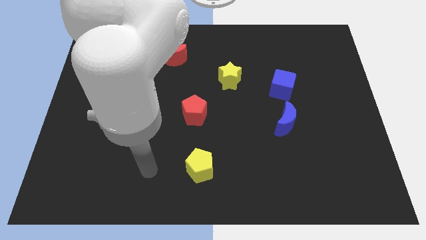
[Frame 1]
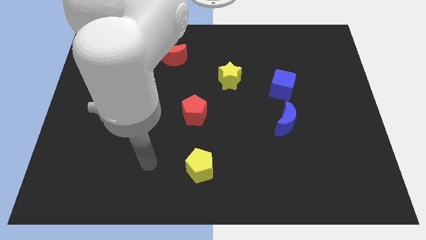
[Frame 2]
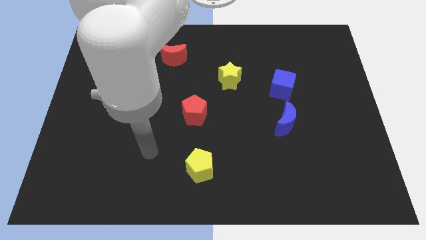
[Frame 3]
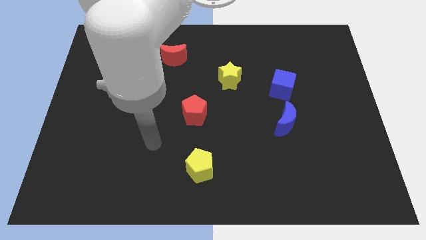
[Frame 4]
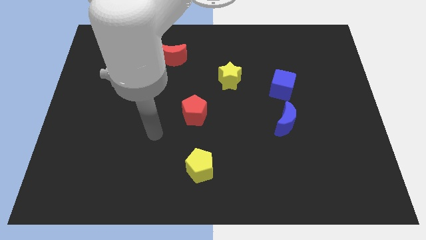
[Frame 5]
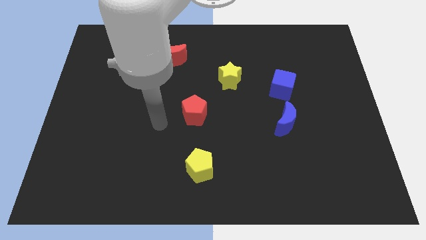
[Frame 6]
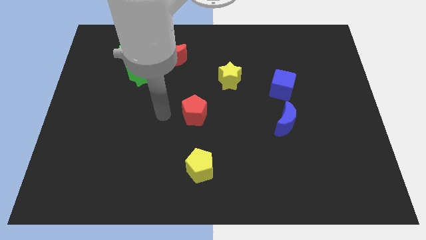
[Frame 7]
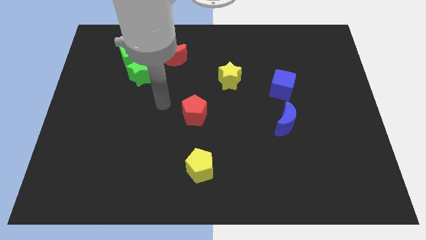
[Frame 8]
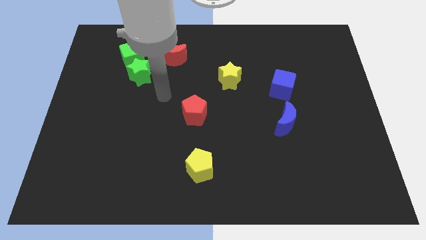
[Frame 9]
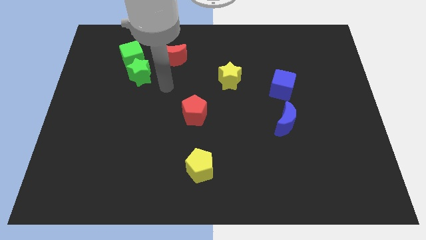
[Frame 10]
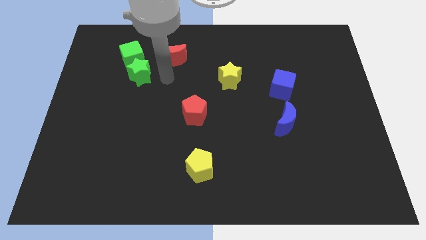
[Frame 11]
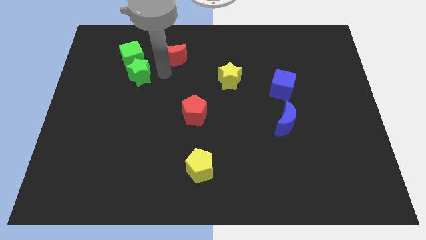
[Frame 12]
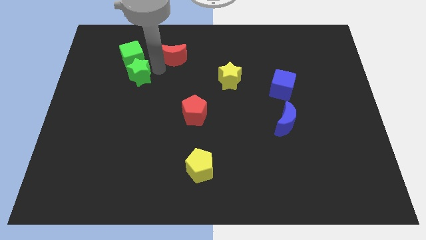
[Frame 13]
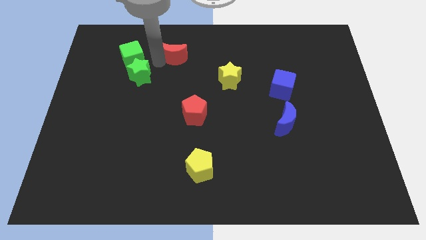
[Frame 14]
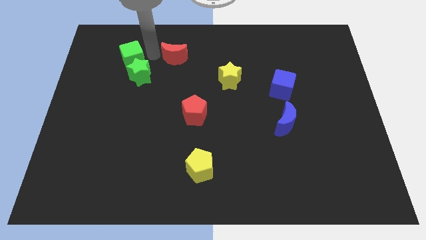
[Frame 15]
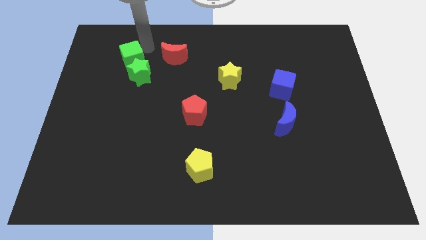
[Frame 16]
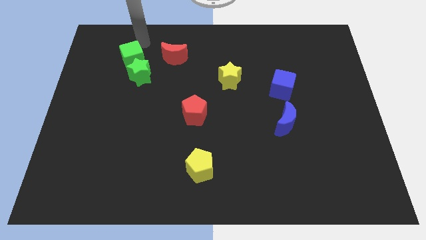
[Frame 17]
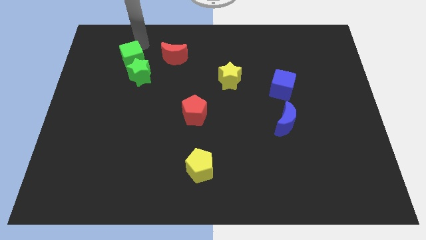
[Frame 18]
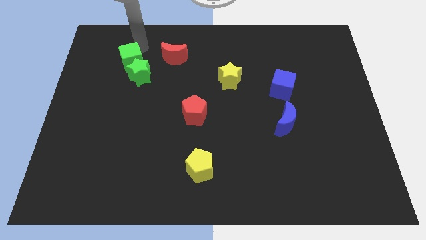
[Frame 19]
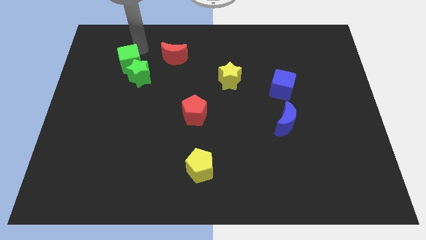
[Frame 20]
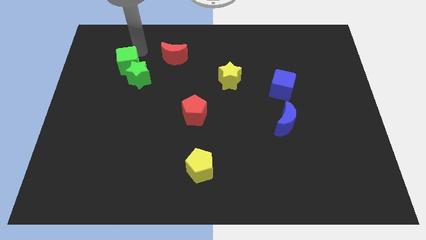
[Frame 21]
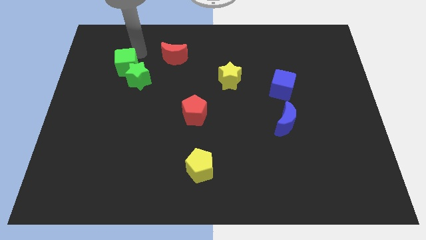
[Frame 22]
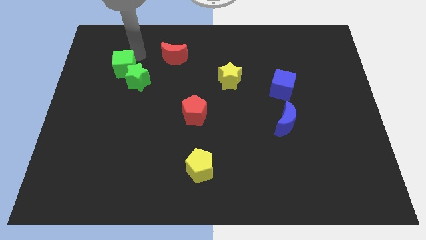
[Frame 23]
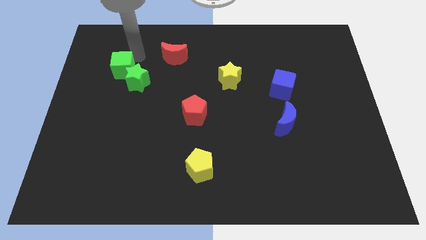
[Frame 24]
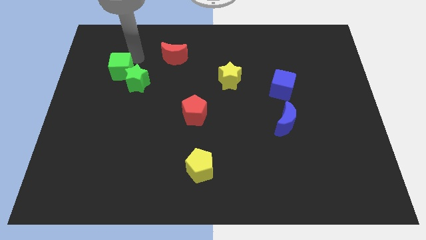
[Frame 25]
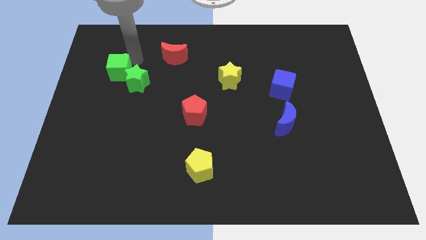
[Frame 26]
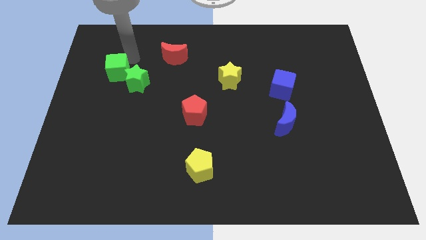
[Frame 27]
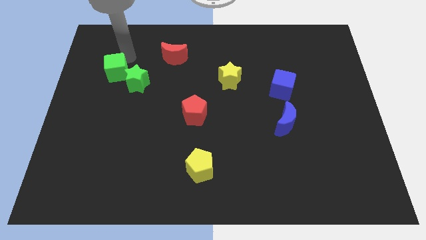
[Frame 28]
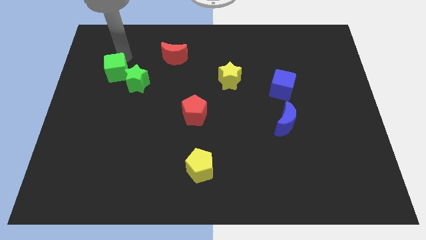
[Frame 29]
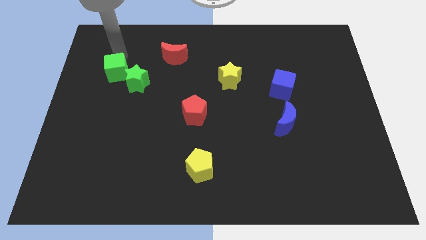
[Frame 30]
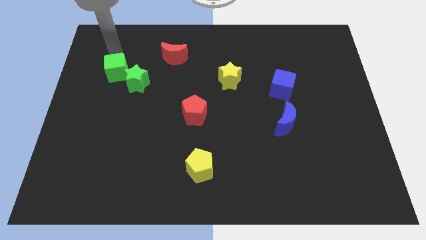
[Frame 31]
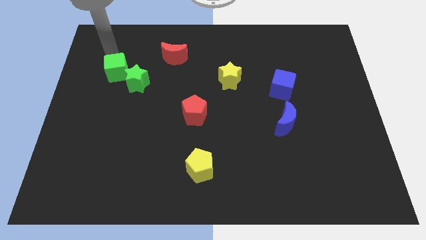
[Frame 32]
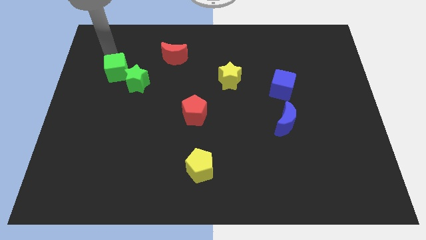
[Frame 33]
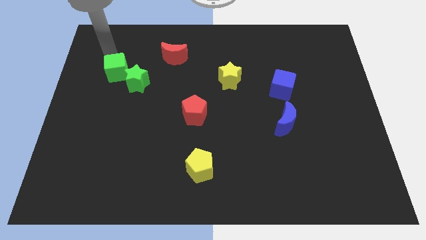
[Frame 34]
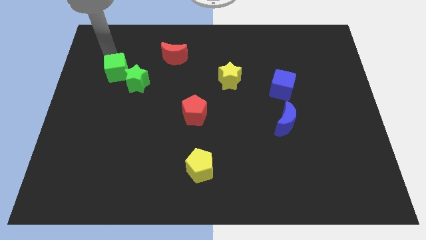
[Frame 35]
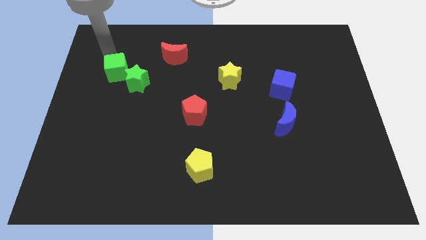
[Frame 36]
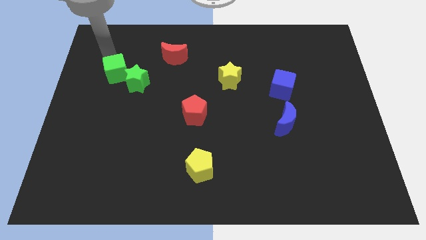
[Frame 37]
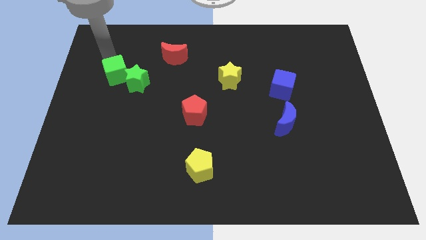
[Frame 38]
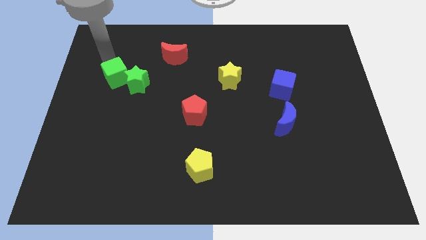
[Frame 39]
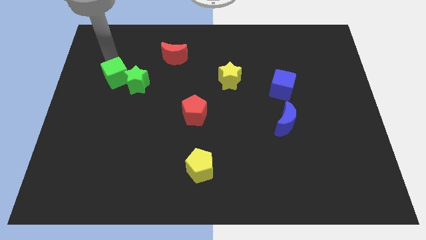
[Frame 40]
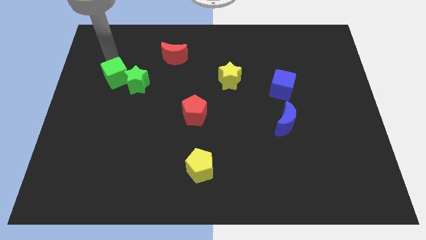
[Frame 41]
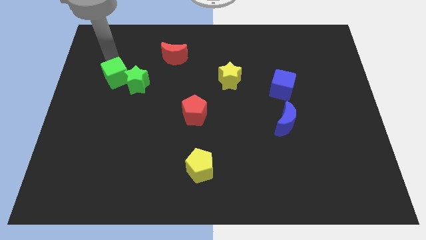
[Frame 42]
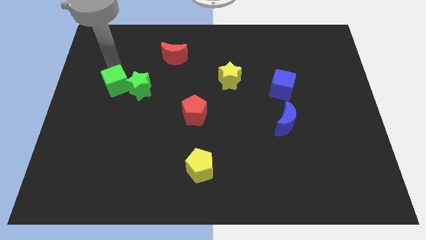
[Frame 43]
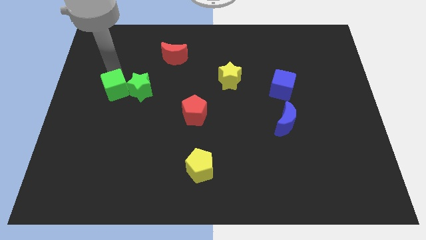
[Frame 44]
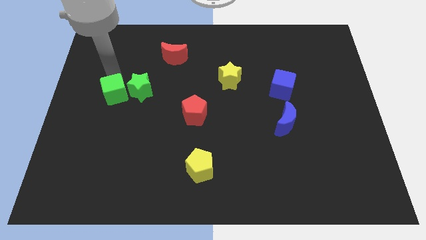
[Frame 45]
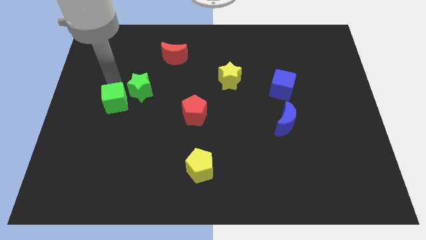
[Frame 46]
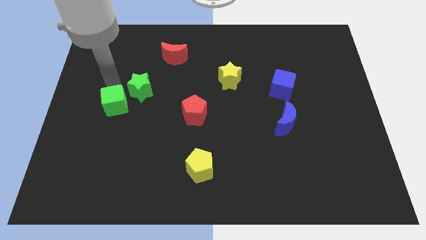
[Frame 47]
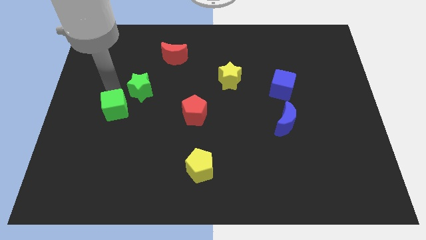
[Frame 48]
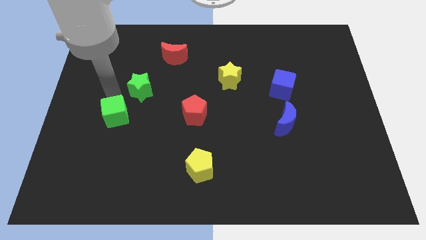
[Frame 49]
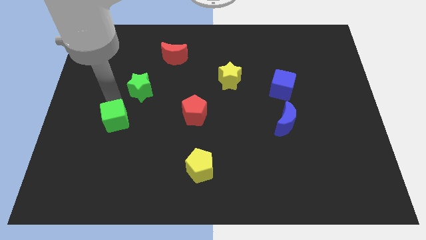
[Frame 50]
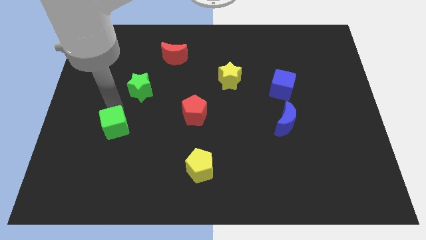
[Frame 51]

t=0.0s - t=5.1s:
slide the green cube downwards

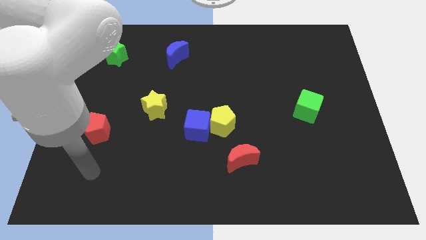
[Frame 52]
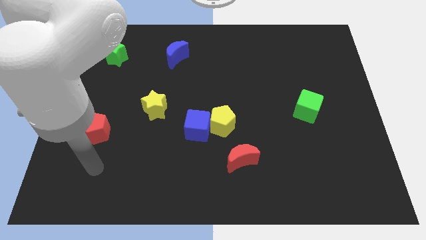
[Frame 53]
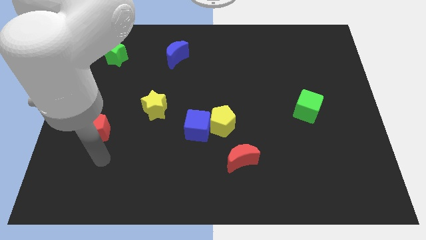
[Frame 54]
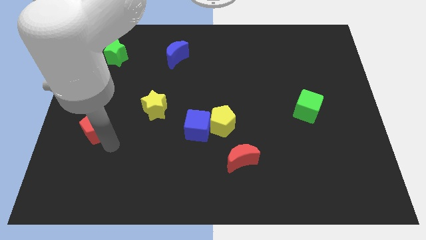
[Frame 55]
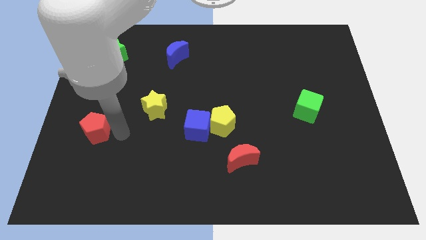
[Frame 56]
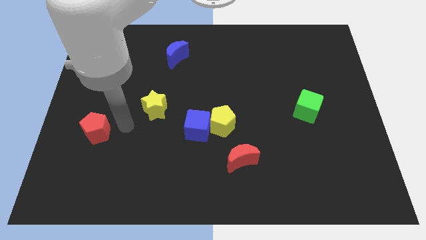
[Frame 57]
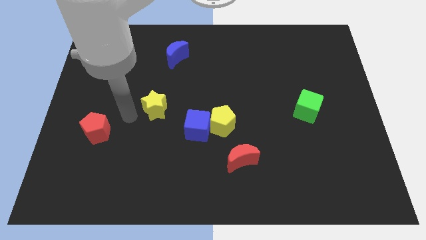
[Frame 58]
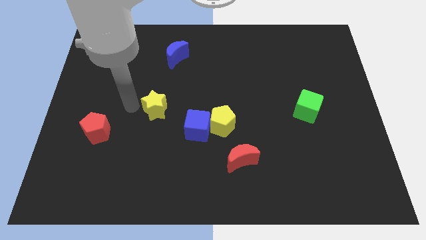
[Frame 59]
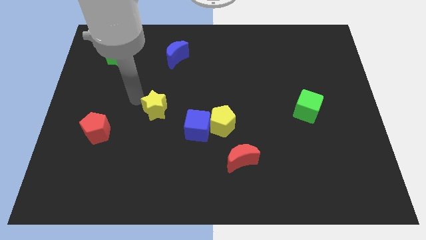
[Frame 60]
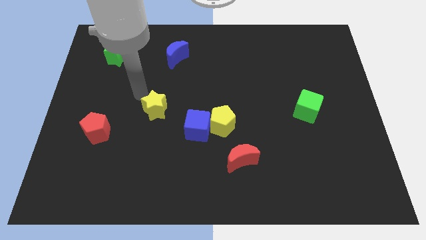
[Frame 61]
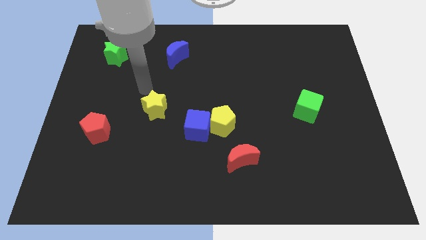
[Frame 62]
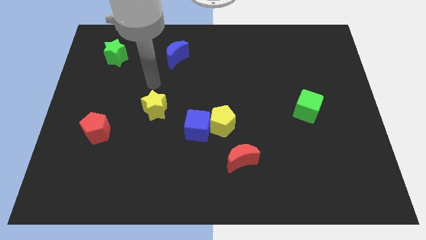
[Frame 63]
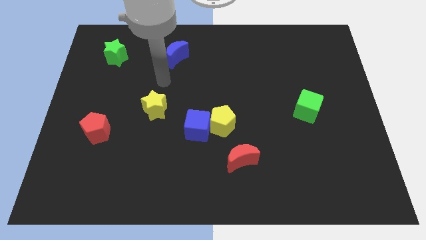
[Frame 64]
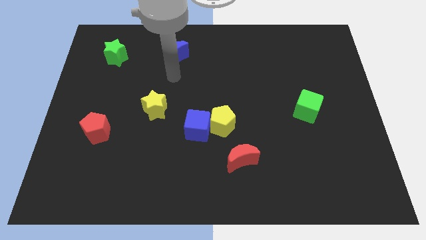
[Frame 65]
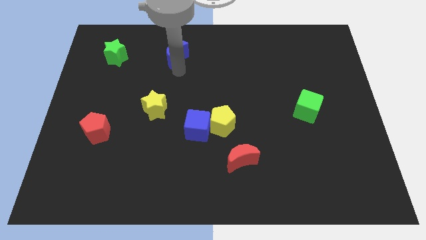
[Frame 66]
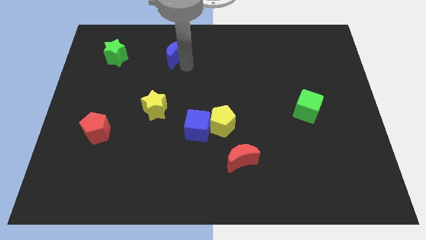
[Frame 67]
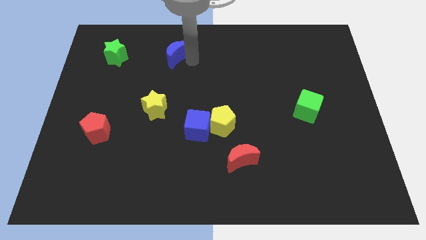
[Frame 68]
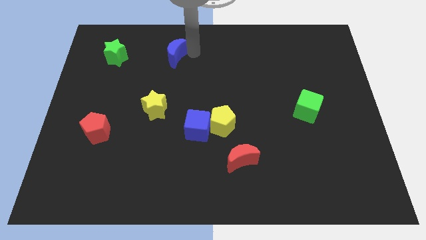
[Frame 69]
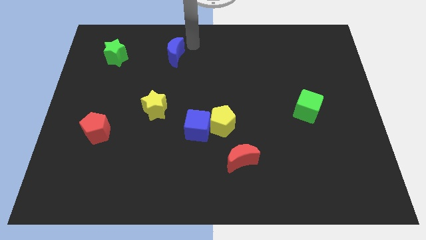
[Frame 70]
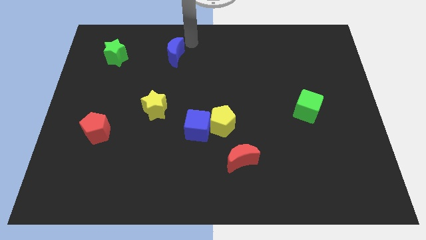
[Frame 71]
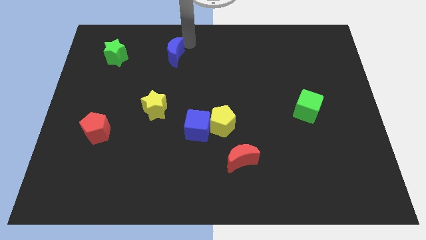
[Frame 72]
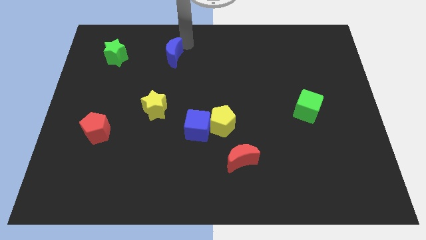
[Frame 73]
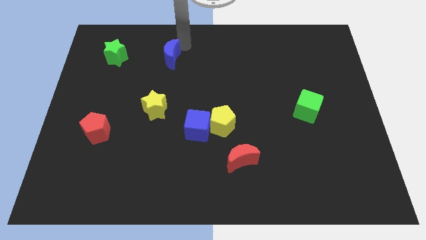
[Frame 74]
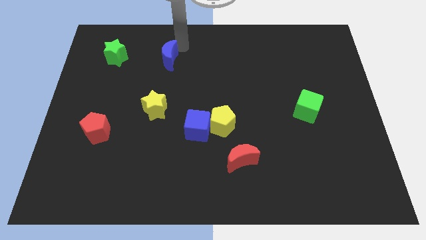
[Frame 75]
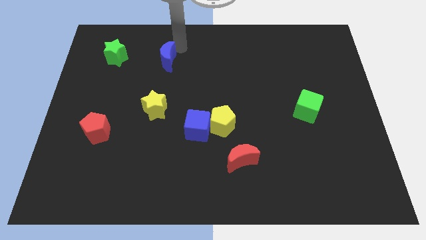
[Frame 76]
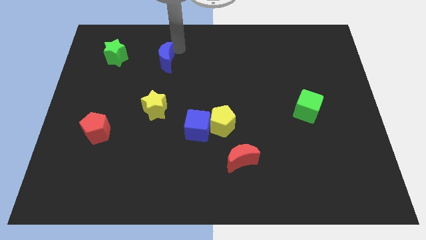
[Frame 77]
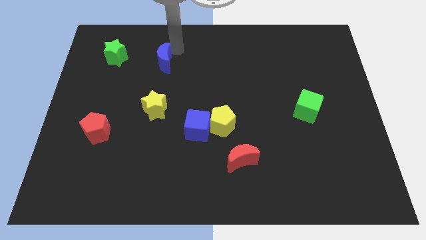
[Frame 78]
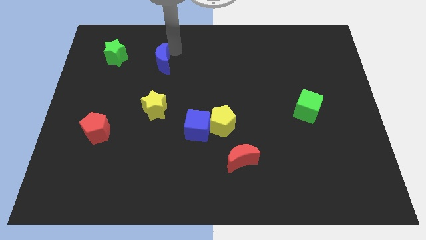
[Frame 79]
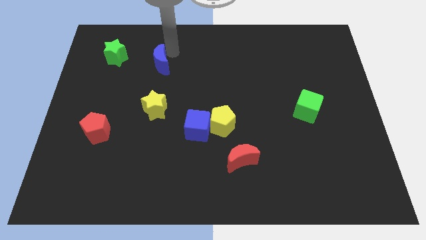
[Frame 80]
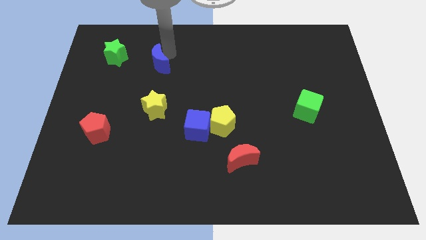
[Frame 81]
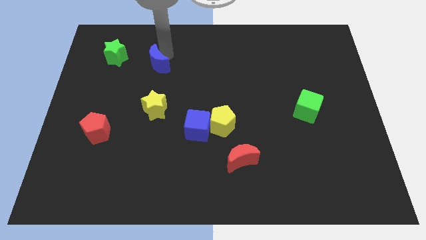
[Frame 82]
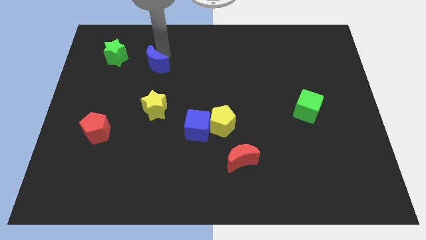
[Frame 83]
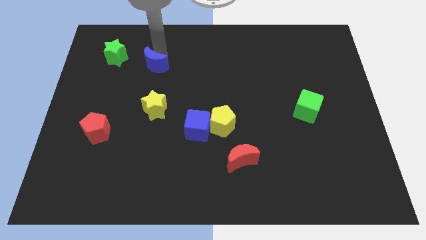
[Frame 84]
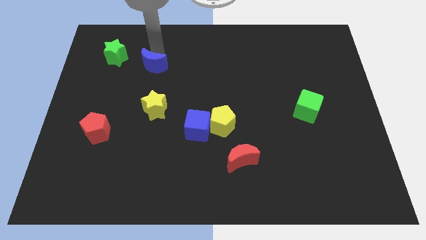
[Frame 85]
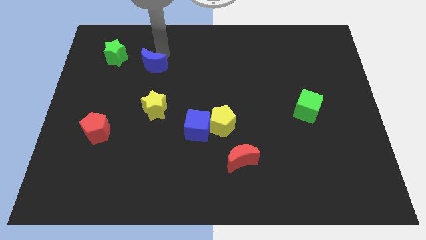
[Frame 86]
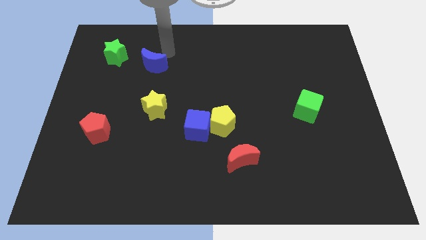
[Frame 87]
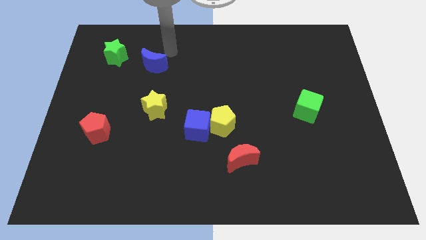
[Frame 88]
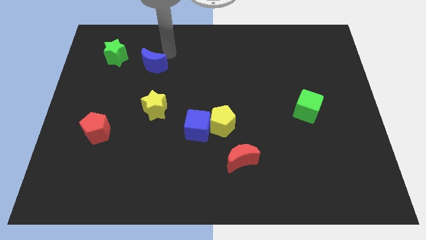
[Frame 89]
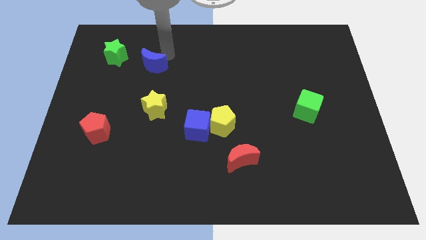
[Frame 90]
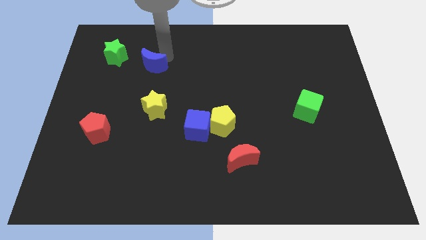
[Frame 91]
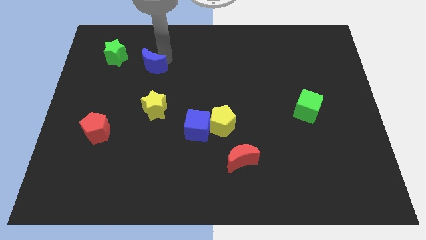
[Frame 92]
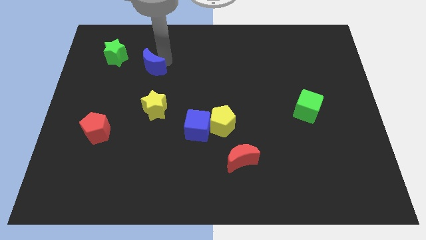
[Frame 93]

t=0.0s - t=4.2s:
slightly slide the blue moon diagonally downwards and to the left
